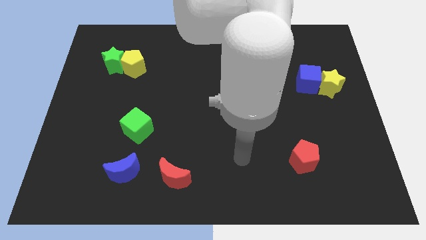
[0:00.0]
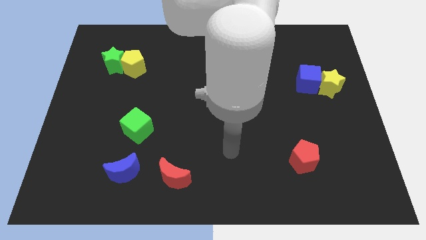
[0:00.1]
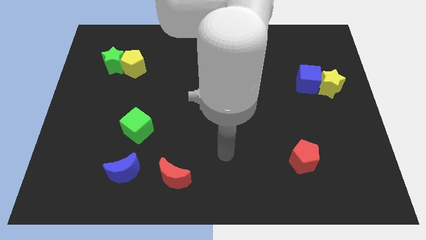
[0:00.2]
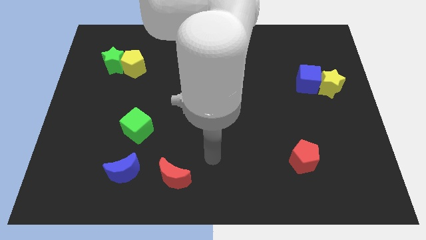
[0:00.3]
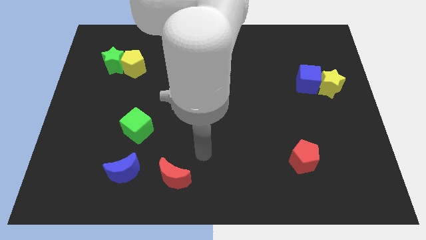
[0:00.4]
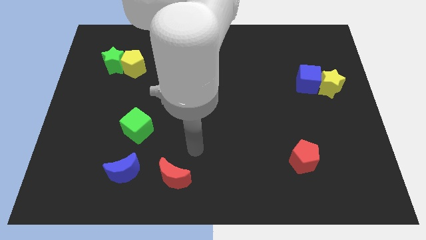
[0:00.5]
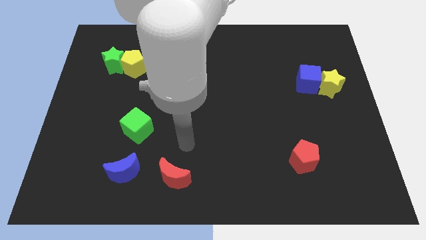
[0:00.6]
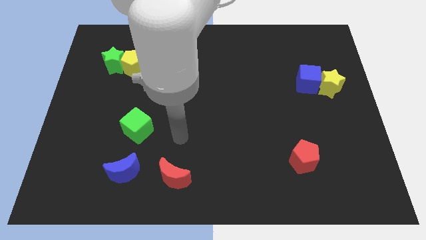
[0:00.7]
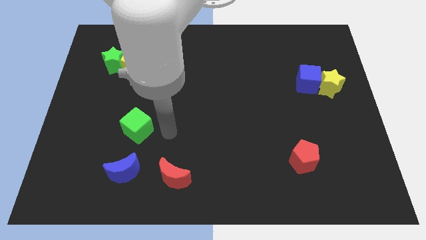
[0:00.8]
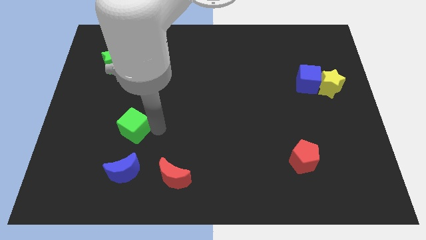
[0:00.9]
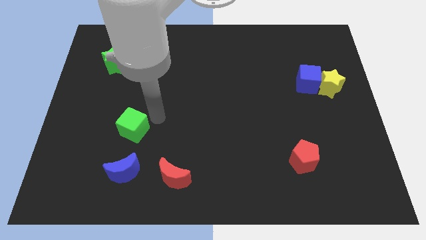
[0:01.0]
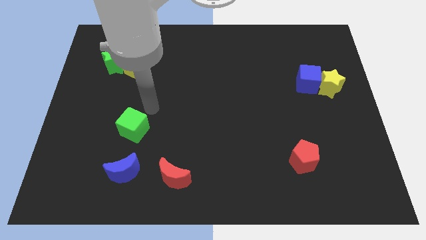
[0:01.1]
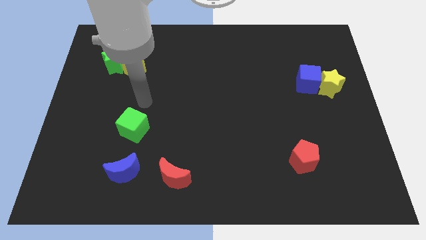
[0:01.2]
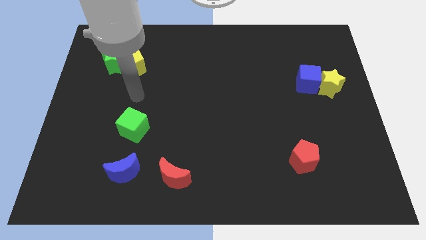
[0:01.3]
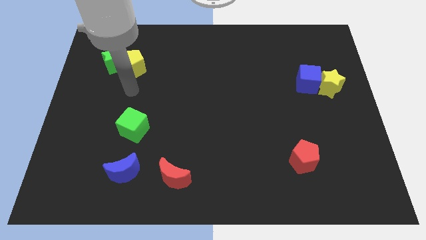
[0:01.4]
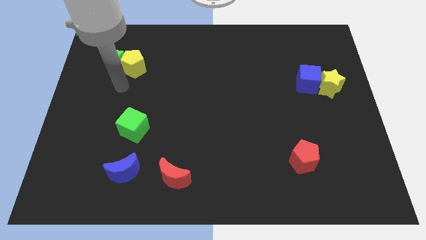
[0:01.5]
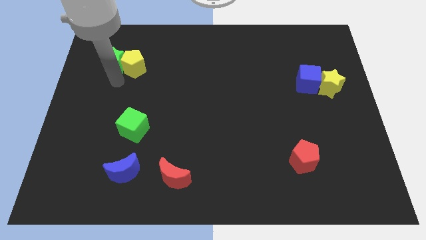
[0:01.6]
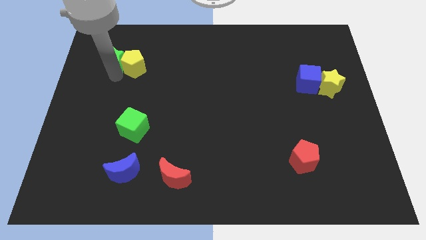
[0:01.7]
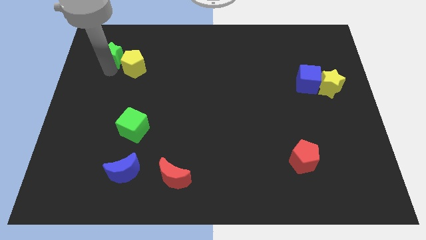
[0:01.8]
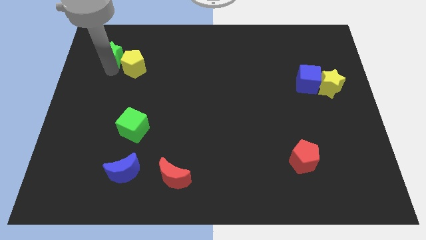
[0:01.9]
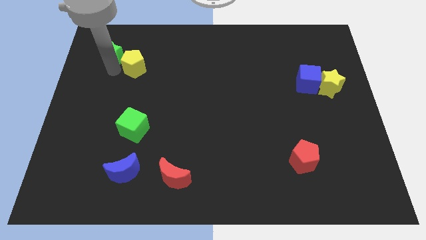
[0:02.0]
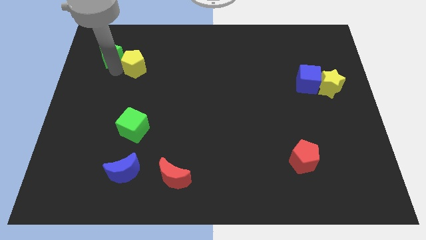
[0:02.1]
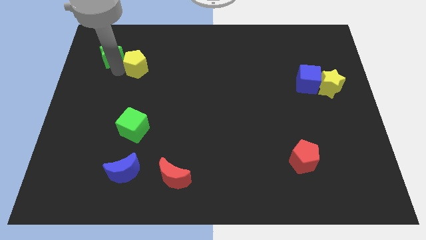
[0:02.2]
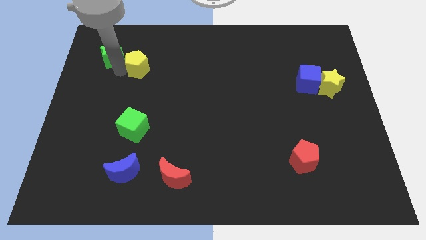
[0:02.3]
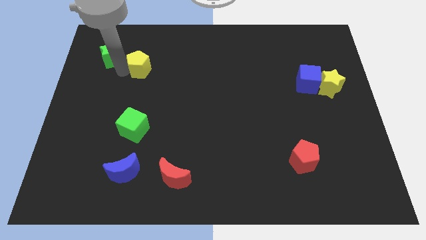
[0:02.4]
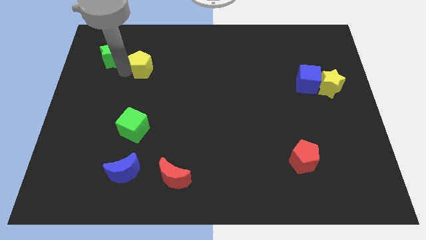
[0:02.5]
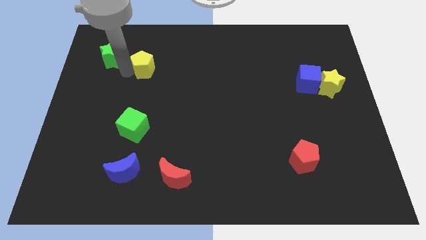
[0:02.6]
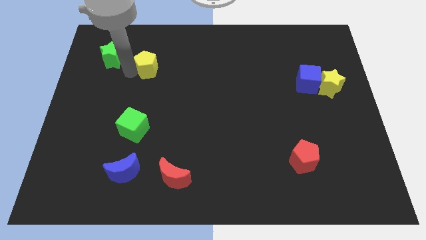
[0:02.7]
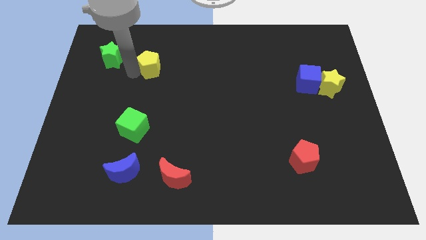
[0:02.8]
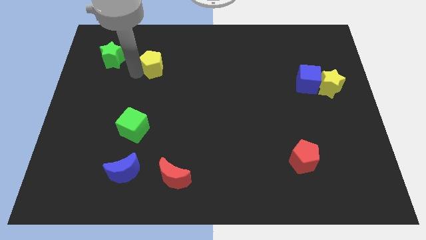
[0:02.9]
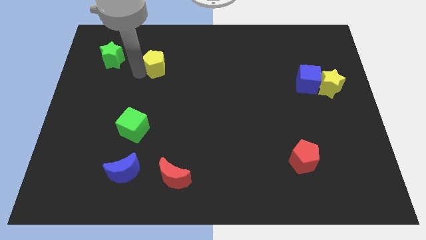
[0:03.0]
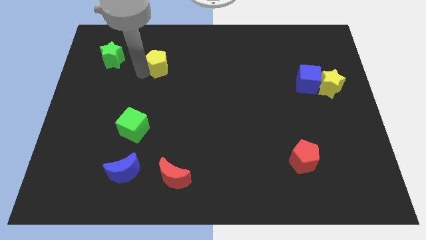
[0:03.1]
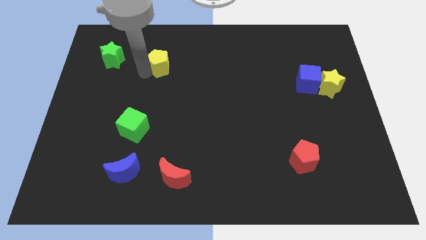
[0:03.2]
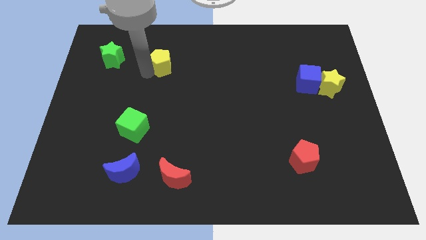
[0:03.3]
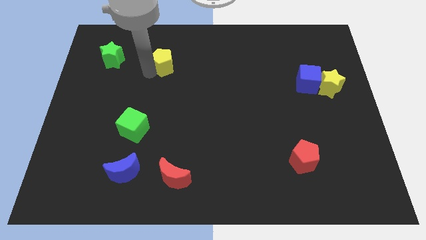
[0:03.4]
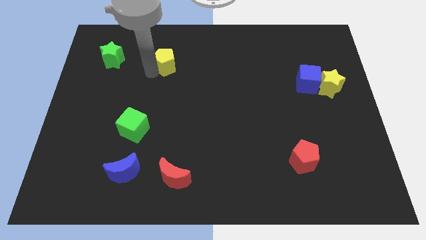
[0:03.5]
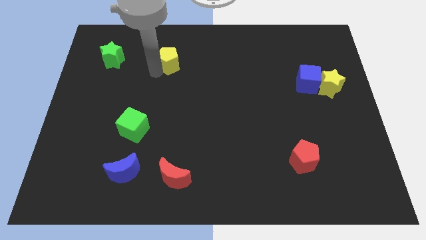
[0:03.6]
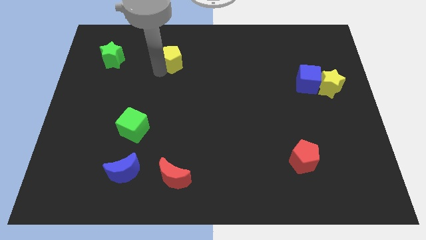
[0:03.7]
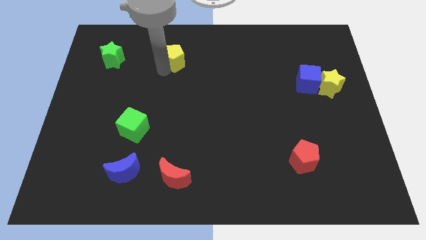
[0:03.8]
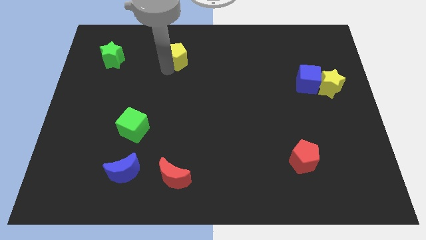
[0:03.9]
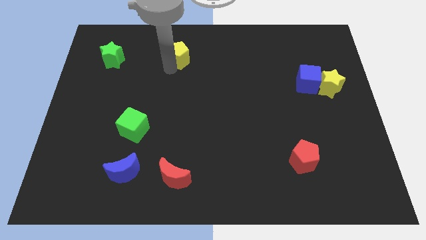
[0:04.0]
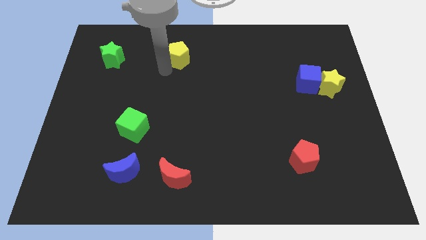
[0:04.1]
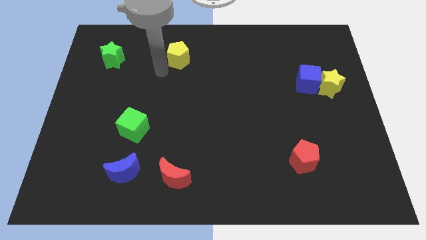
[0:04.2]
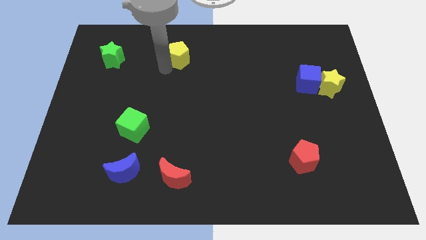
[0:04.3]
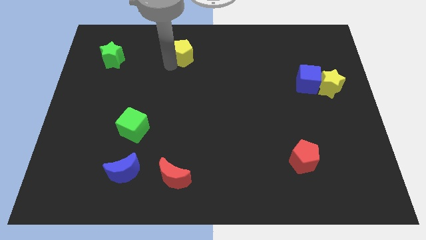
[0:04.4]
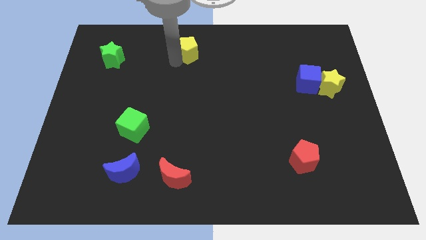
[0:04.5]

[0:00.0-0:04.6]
move the yellow pentagon to the top

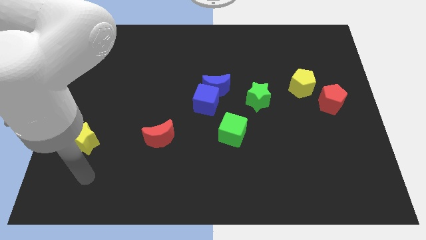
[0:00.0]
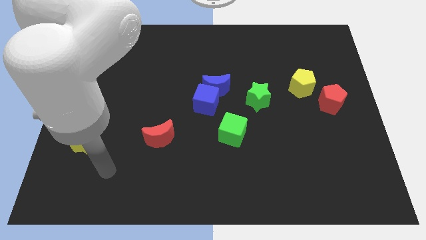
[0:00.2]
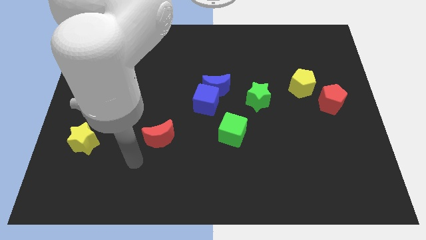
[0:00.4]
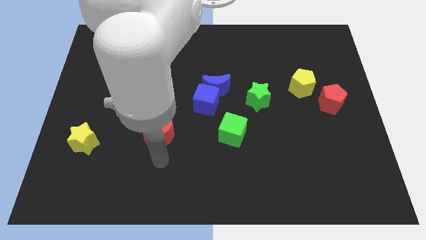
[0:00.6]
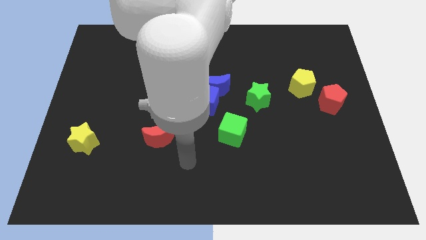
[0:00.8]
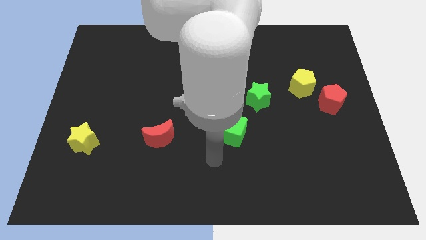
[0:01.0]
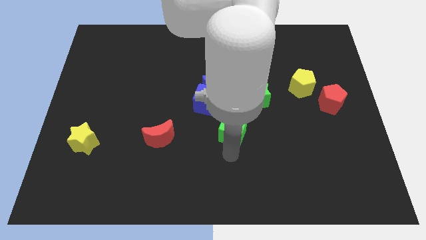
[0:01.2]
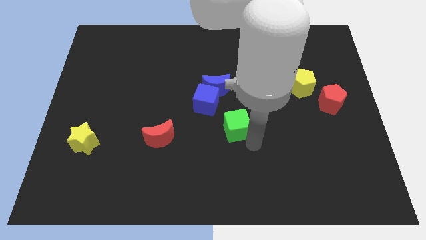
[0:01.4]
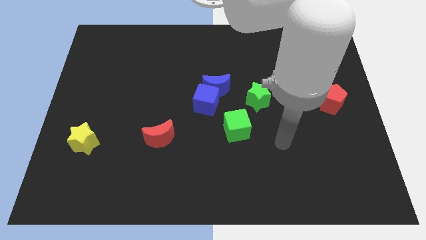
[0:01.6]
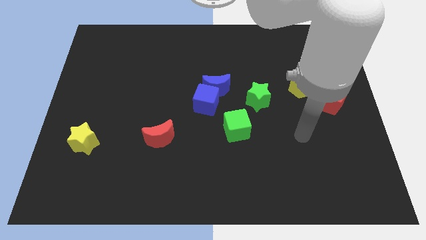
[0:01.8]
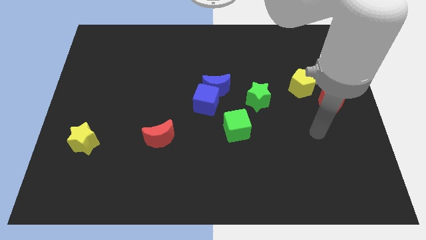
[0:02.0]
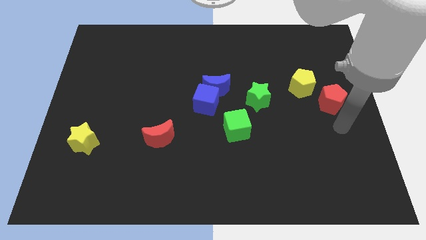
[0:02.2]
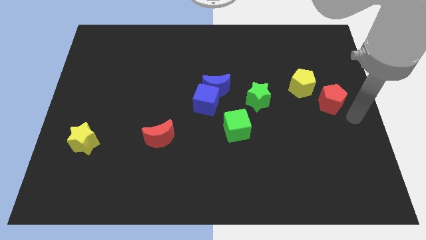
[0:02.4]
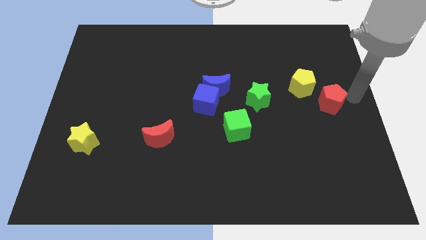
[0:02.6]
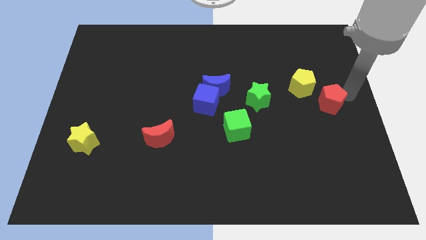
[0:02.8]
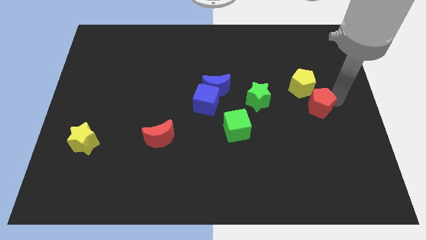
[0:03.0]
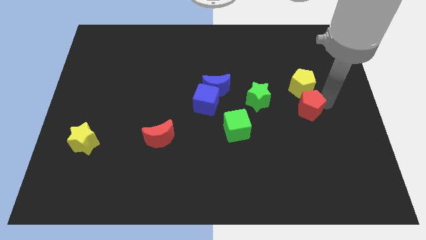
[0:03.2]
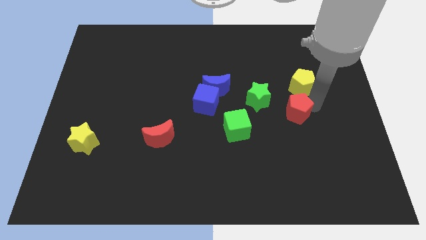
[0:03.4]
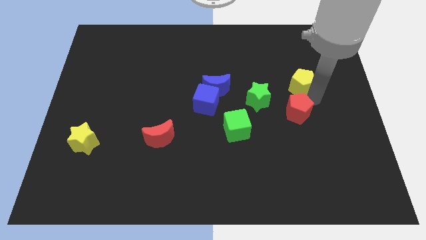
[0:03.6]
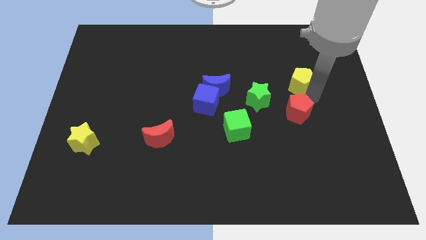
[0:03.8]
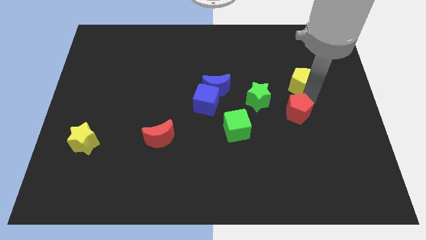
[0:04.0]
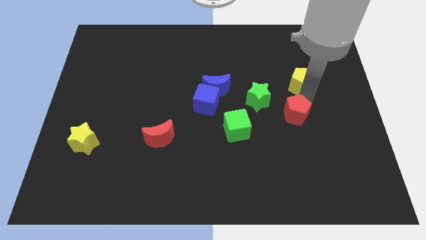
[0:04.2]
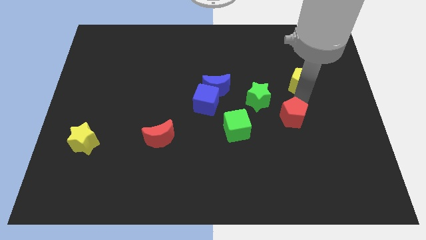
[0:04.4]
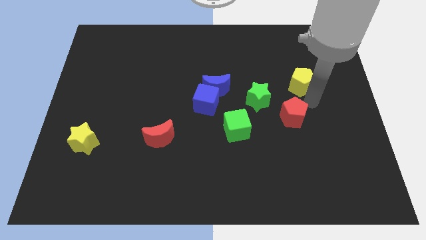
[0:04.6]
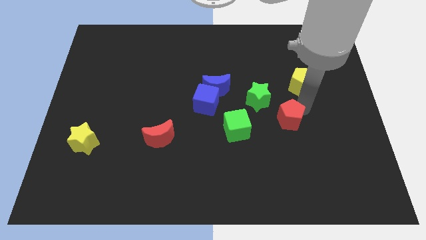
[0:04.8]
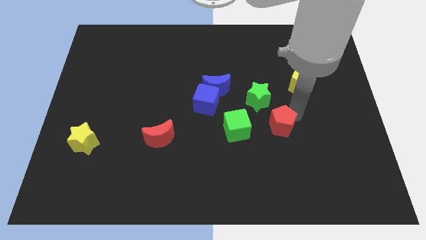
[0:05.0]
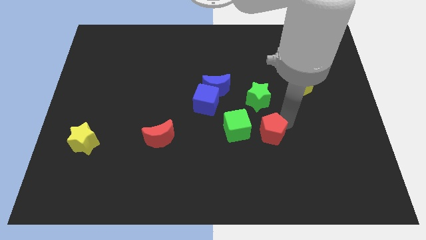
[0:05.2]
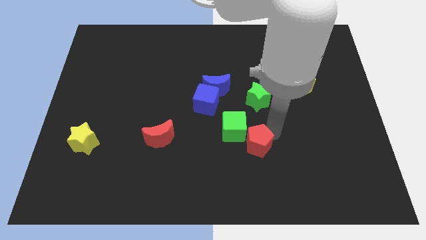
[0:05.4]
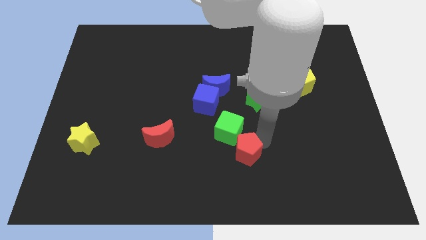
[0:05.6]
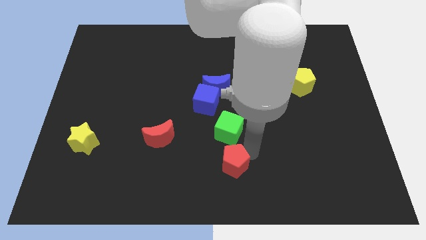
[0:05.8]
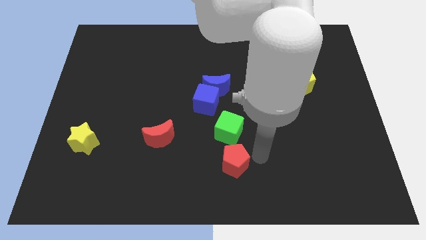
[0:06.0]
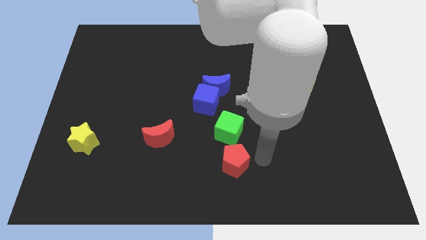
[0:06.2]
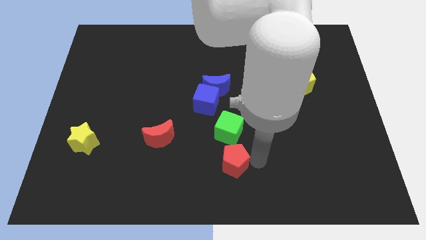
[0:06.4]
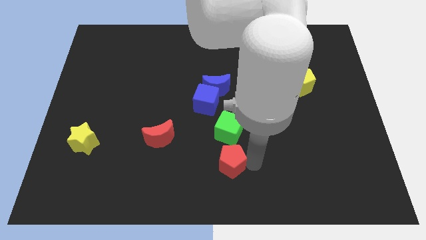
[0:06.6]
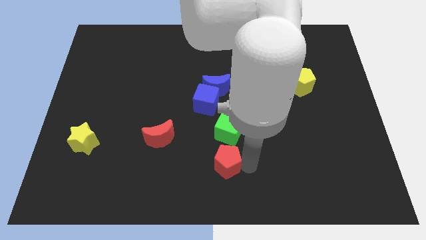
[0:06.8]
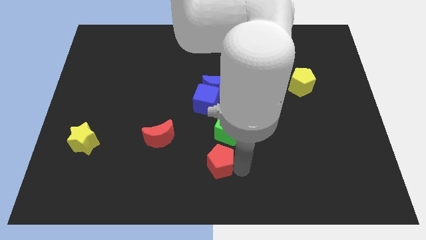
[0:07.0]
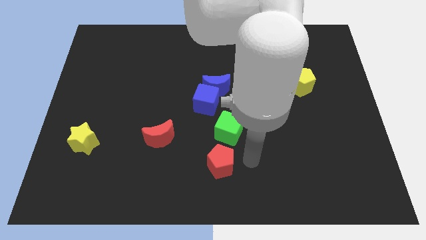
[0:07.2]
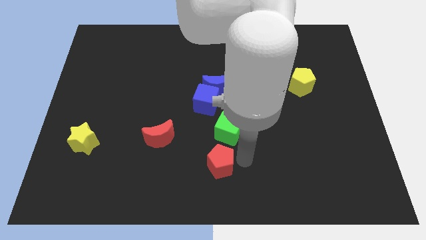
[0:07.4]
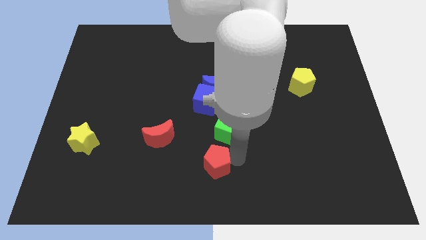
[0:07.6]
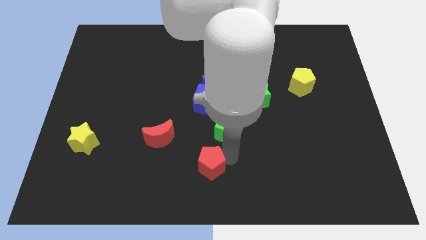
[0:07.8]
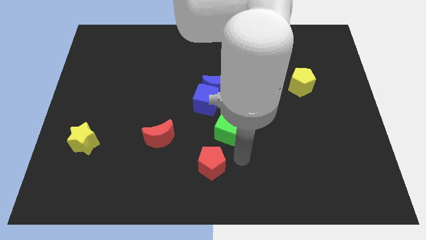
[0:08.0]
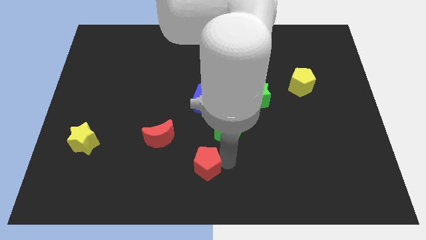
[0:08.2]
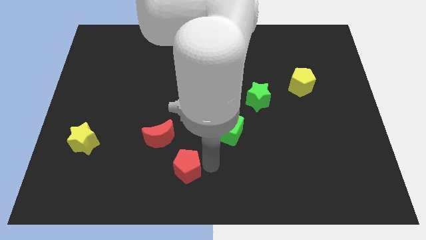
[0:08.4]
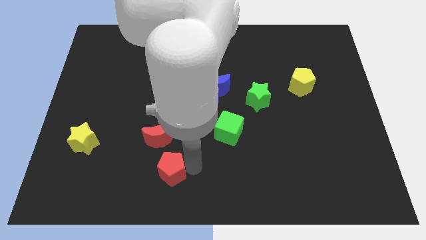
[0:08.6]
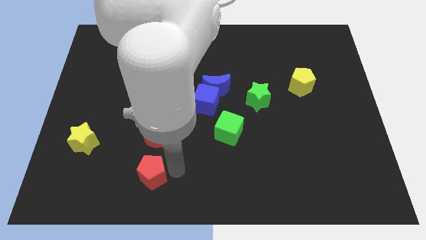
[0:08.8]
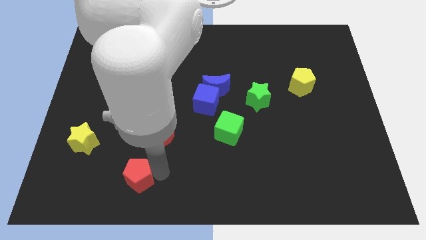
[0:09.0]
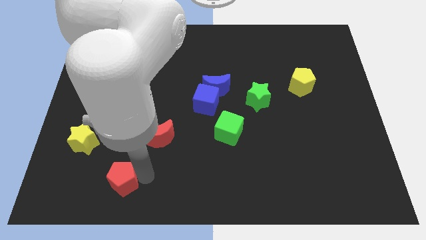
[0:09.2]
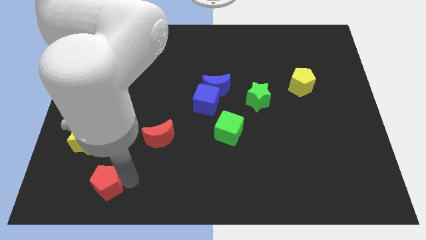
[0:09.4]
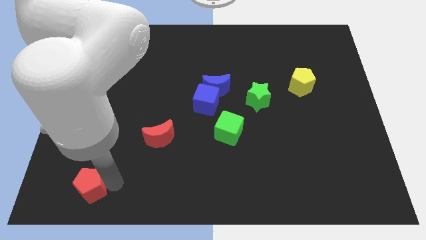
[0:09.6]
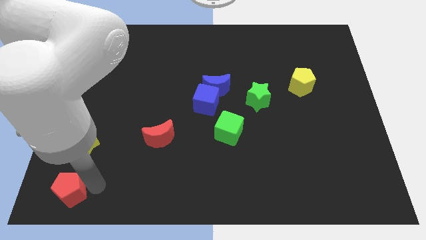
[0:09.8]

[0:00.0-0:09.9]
move the red pentagon to the bottom left corner
